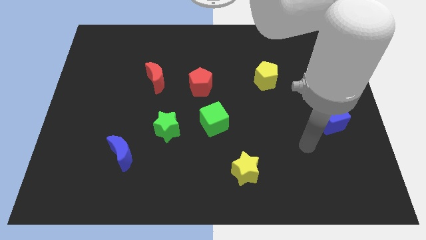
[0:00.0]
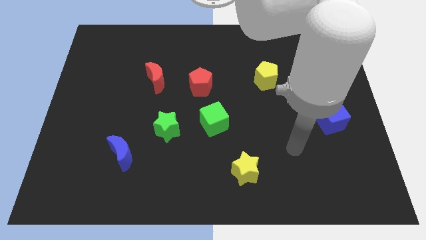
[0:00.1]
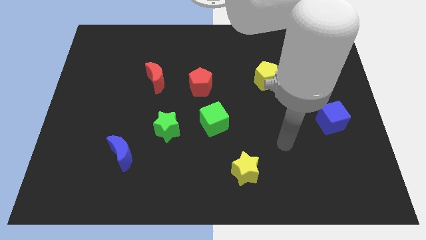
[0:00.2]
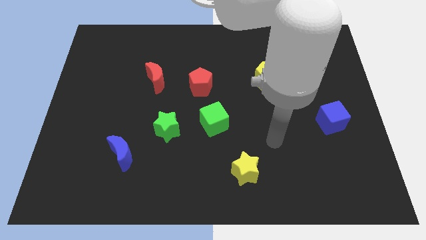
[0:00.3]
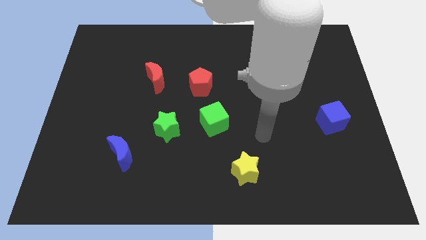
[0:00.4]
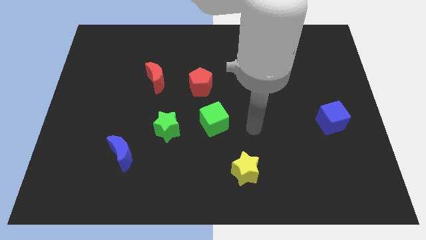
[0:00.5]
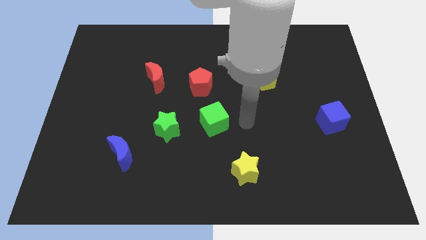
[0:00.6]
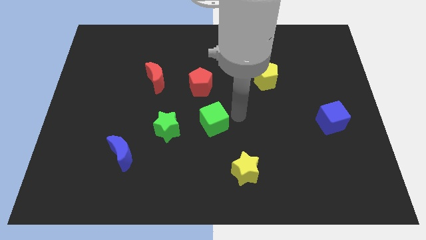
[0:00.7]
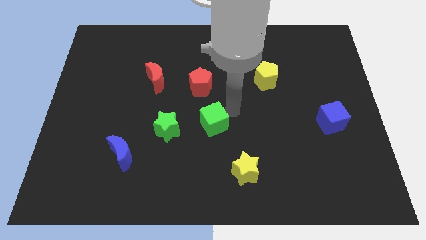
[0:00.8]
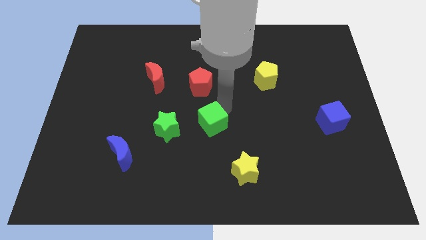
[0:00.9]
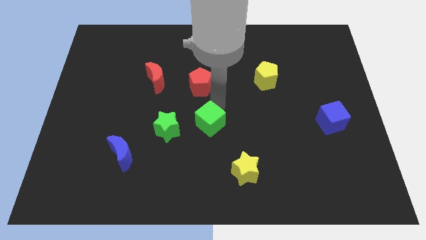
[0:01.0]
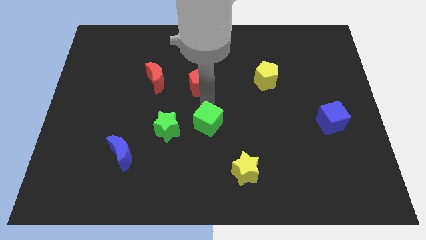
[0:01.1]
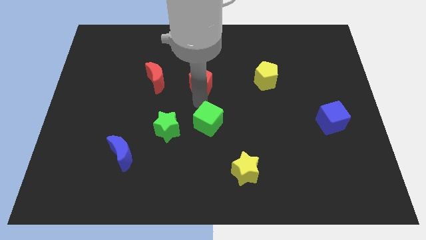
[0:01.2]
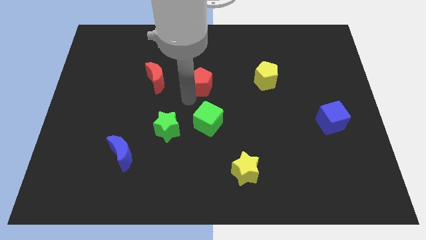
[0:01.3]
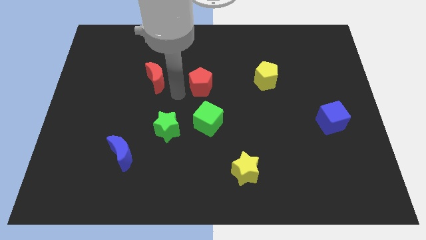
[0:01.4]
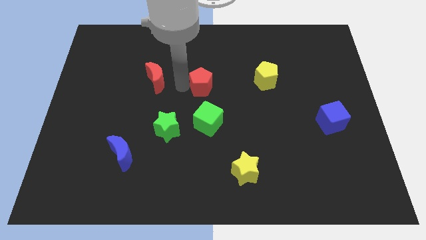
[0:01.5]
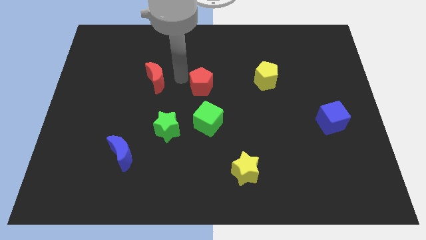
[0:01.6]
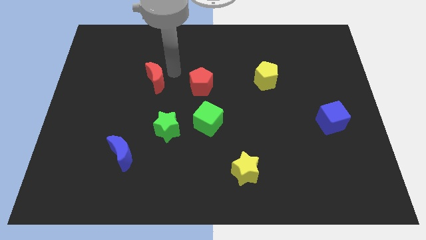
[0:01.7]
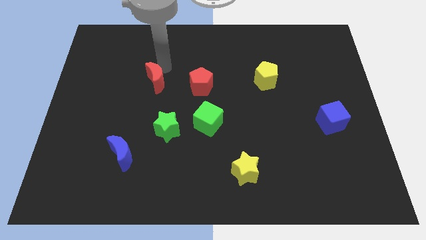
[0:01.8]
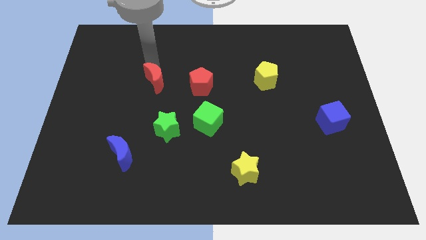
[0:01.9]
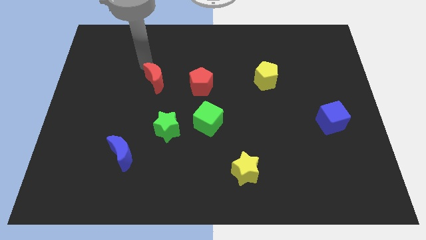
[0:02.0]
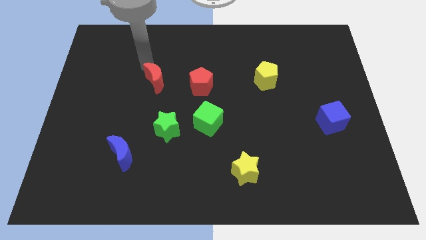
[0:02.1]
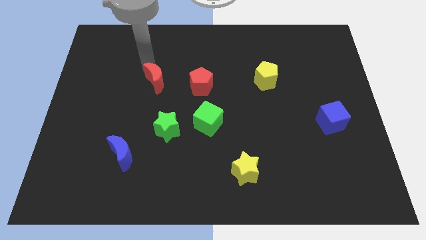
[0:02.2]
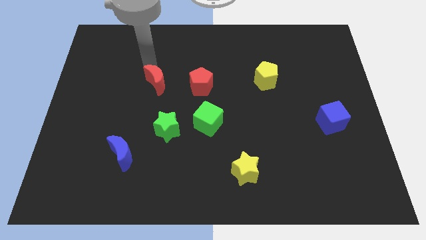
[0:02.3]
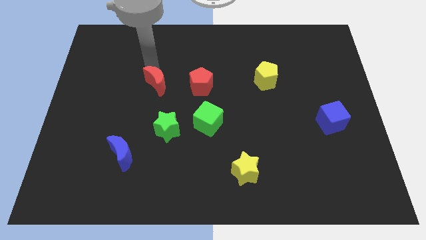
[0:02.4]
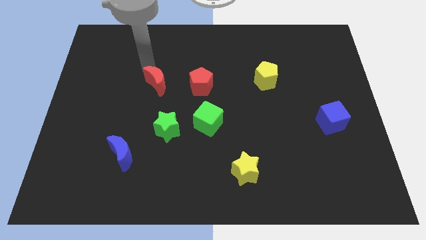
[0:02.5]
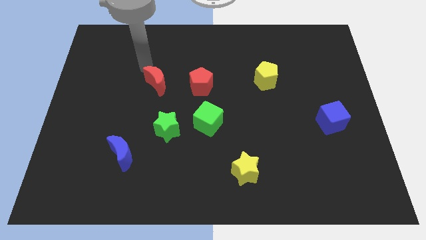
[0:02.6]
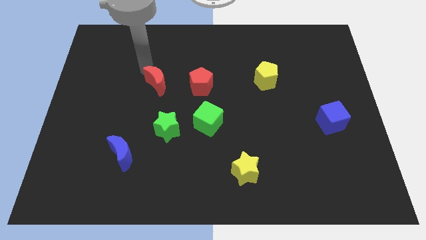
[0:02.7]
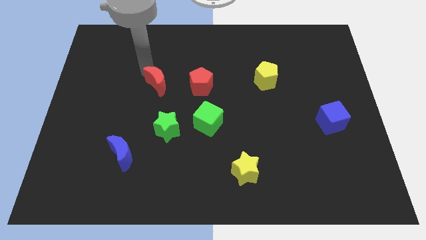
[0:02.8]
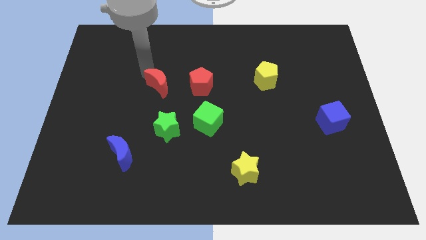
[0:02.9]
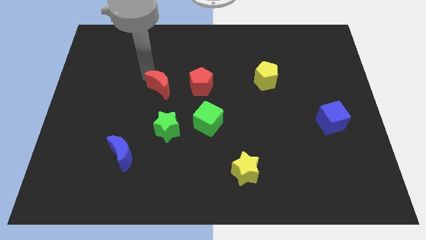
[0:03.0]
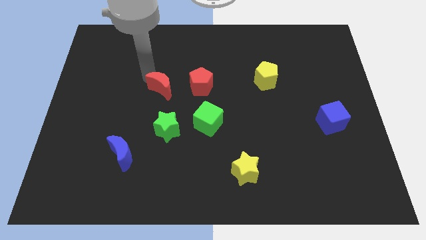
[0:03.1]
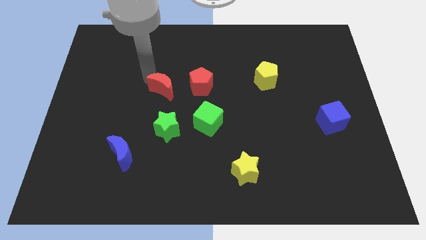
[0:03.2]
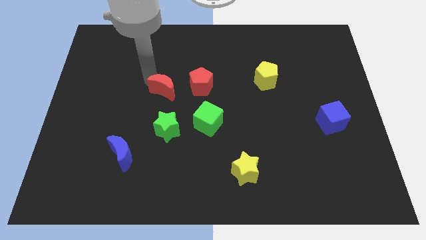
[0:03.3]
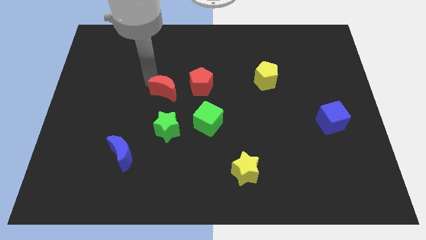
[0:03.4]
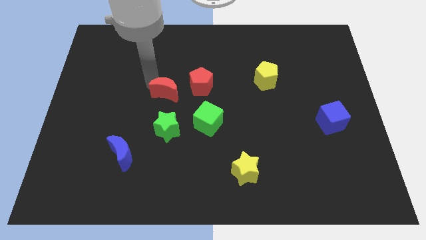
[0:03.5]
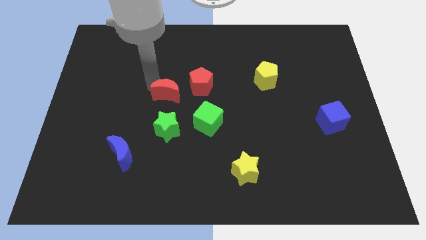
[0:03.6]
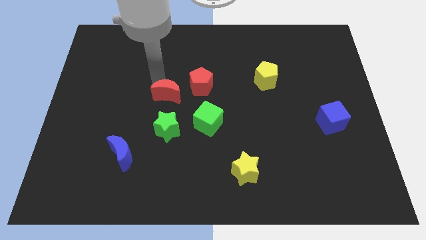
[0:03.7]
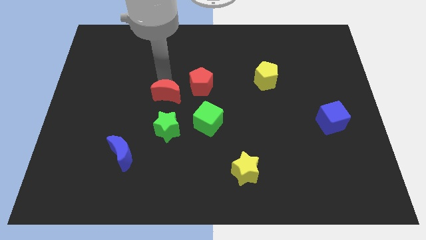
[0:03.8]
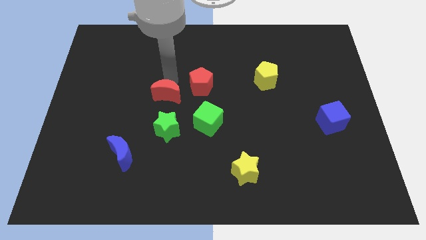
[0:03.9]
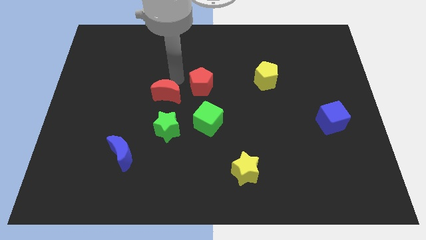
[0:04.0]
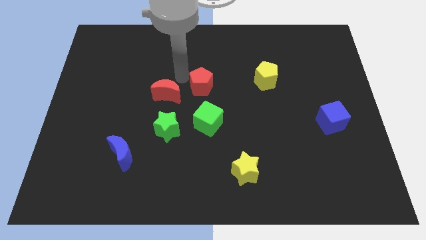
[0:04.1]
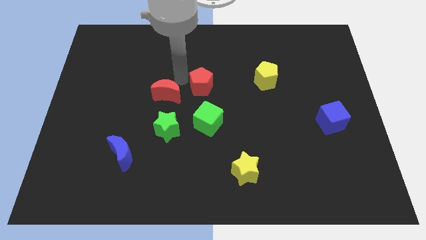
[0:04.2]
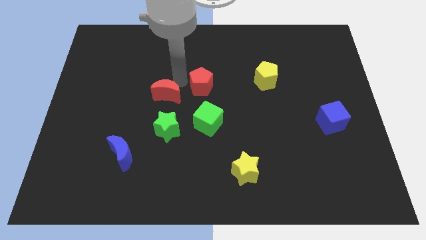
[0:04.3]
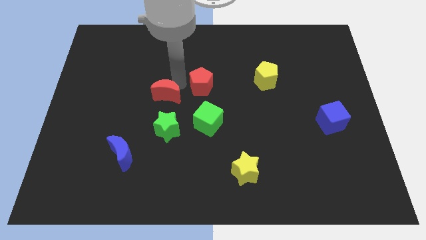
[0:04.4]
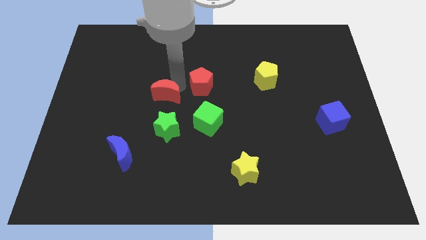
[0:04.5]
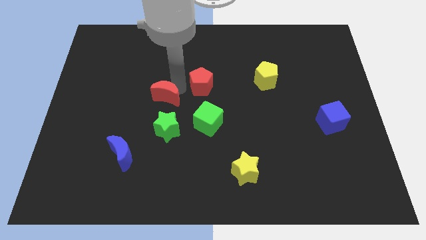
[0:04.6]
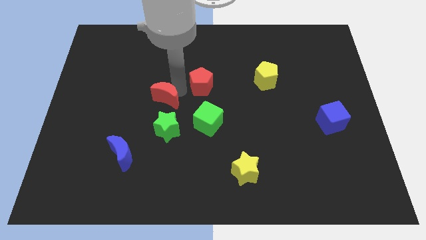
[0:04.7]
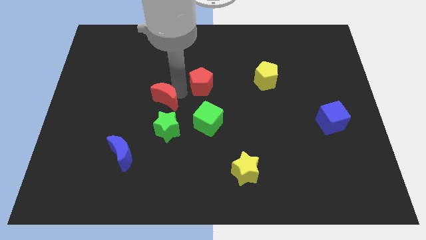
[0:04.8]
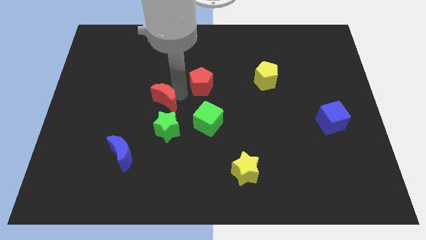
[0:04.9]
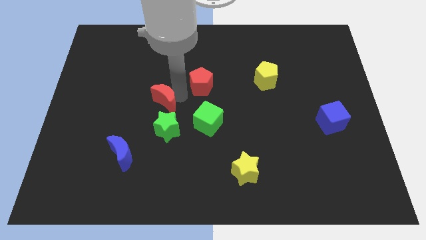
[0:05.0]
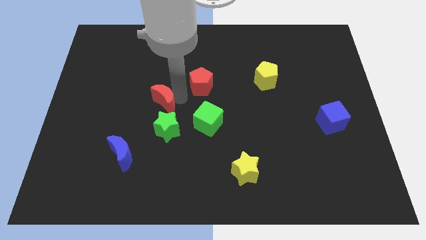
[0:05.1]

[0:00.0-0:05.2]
move the red moon somewhat downwards

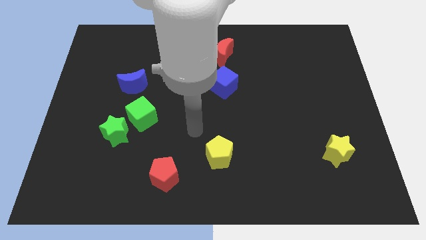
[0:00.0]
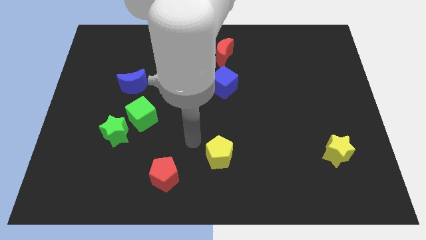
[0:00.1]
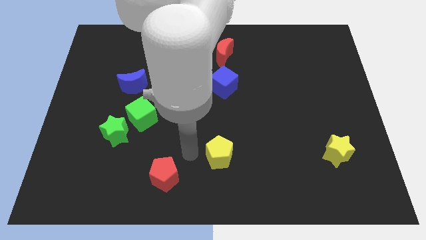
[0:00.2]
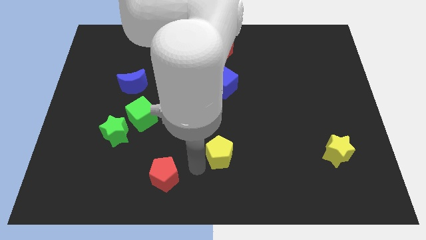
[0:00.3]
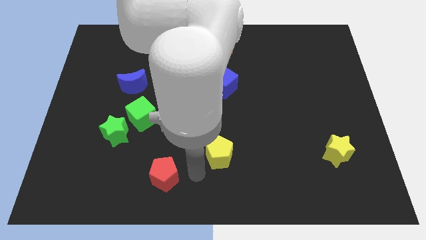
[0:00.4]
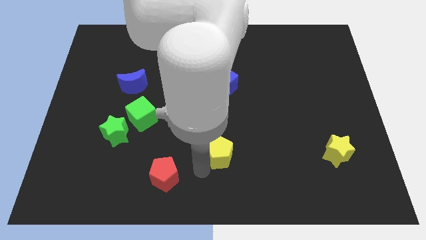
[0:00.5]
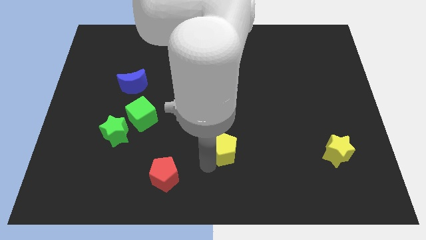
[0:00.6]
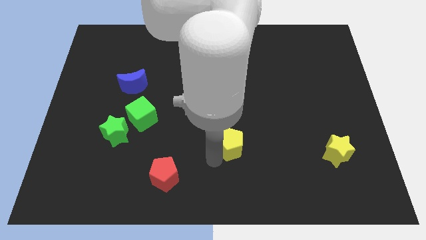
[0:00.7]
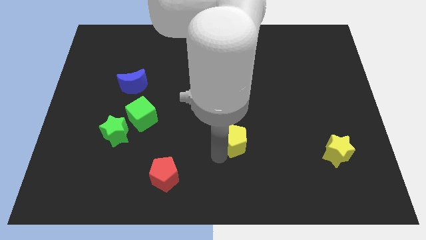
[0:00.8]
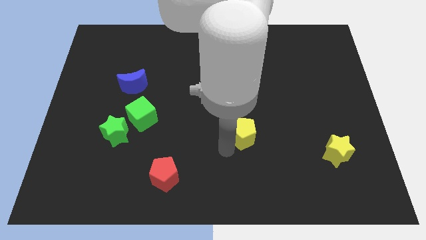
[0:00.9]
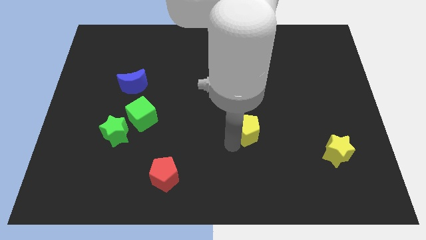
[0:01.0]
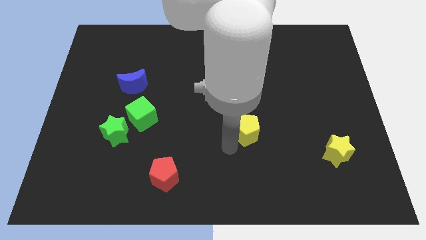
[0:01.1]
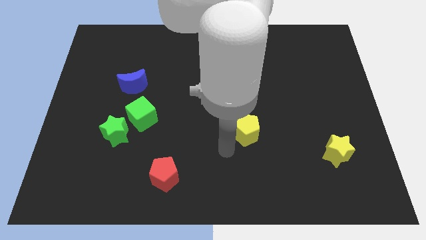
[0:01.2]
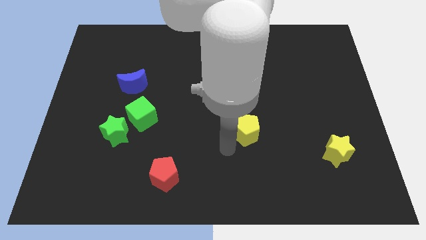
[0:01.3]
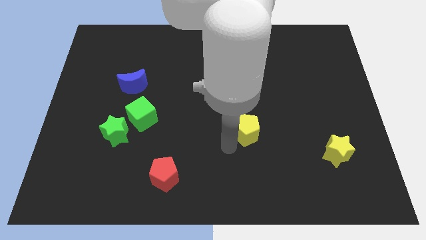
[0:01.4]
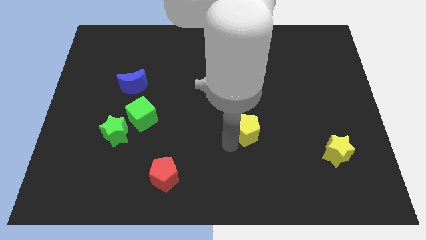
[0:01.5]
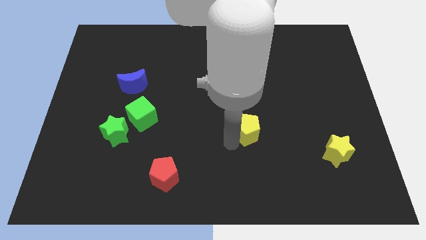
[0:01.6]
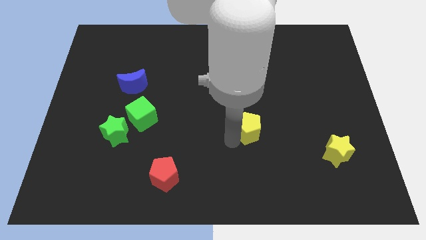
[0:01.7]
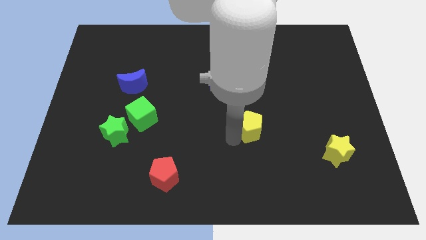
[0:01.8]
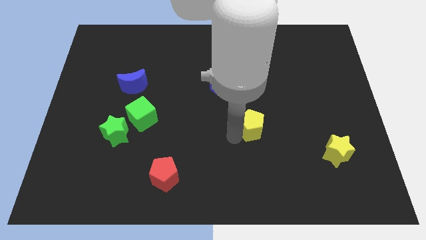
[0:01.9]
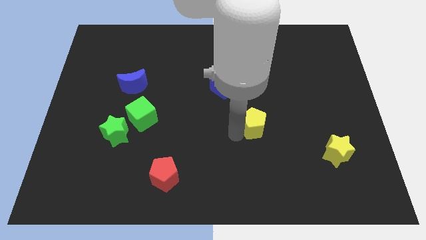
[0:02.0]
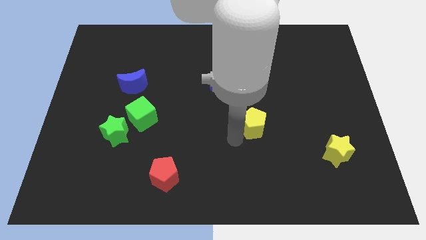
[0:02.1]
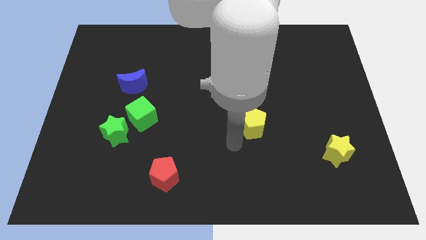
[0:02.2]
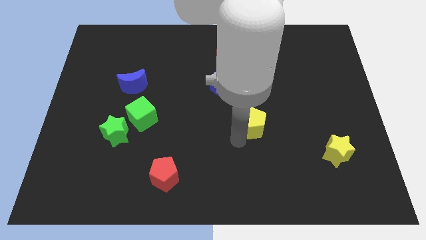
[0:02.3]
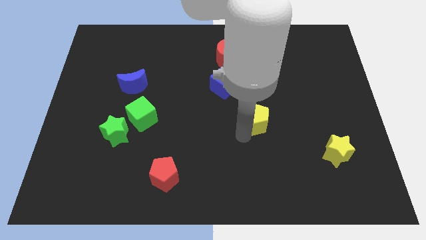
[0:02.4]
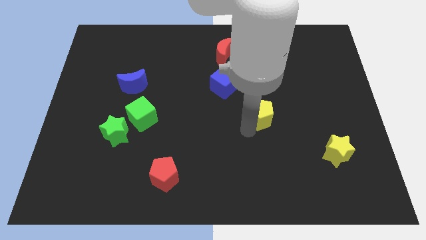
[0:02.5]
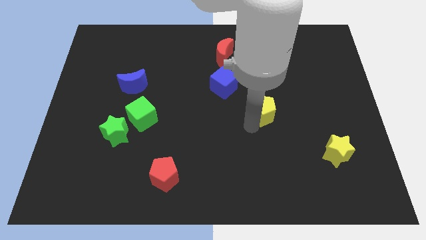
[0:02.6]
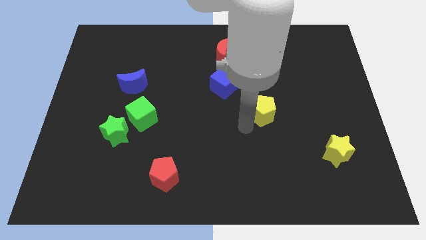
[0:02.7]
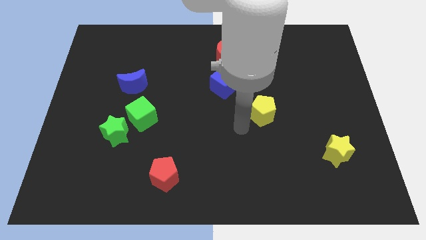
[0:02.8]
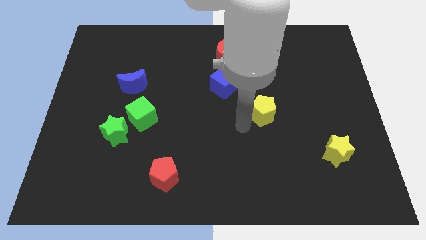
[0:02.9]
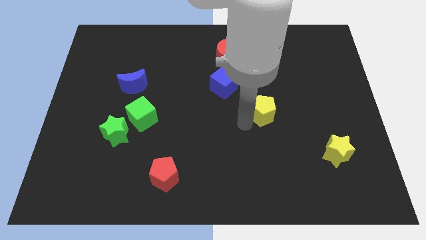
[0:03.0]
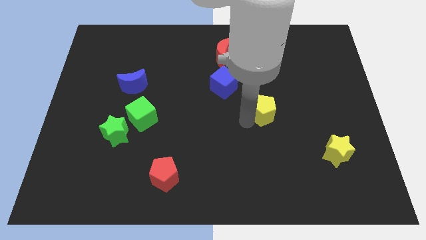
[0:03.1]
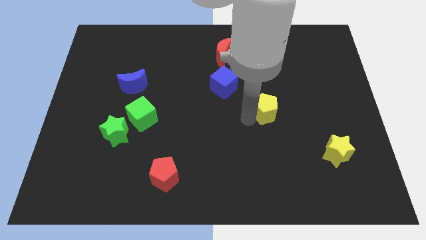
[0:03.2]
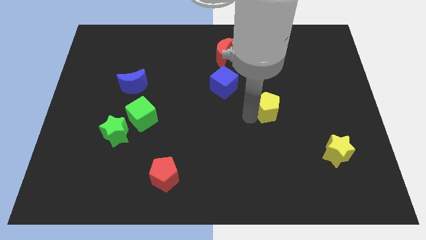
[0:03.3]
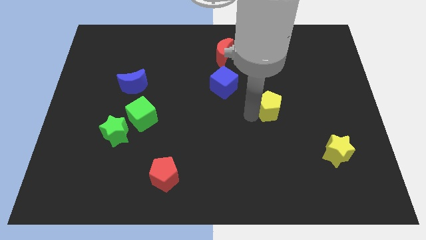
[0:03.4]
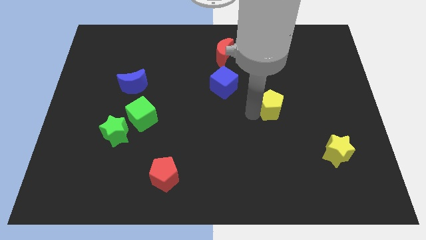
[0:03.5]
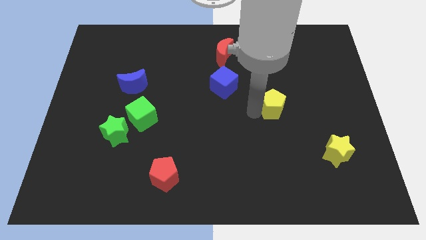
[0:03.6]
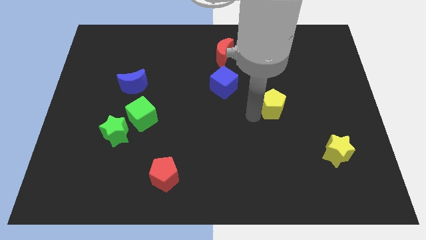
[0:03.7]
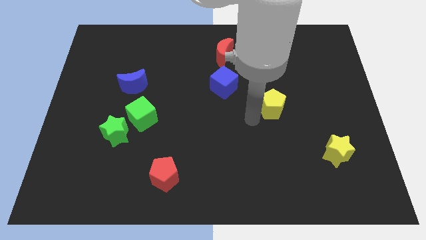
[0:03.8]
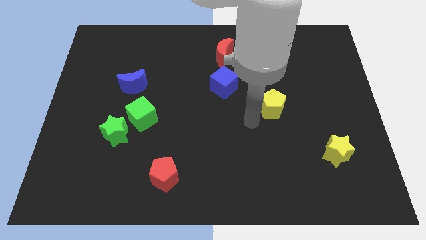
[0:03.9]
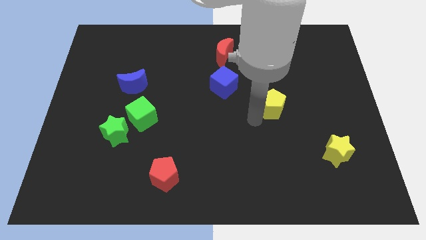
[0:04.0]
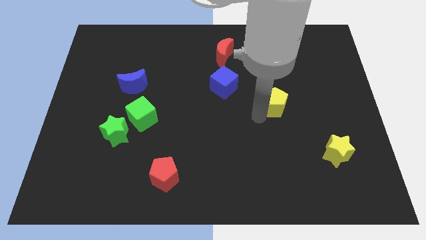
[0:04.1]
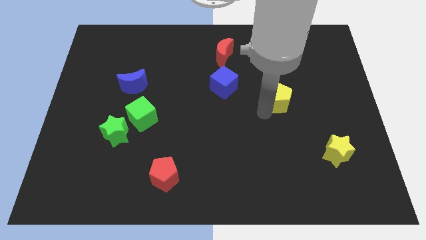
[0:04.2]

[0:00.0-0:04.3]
move the yellow pentagon diagonally up and to the right
